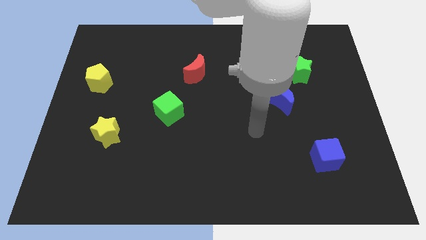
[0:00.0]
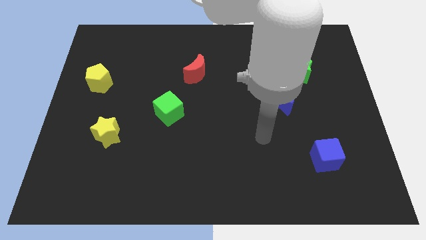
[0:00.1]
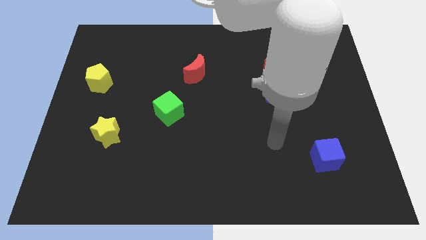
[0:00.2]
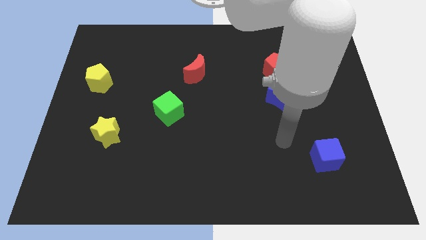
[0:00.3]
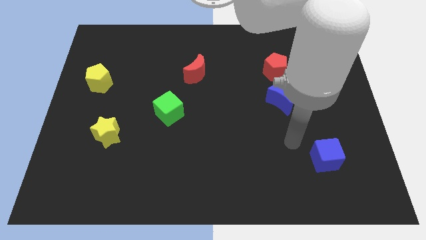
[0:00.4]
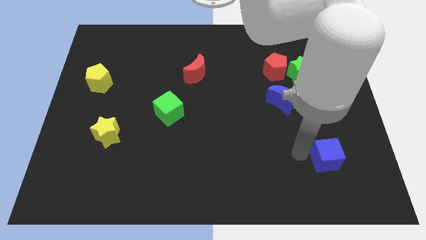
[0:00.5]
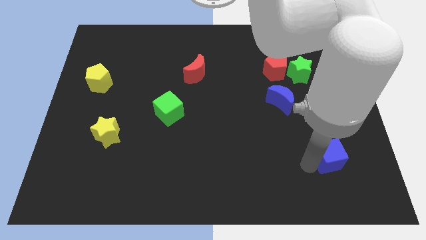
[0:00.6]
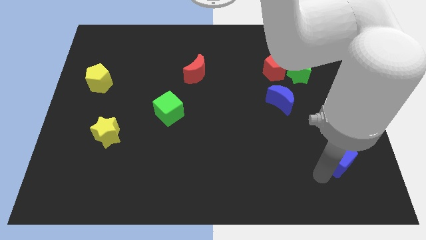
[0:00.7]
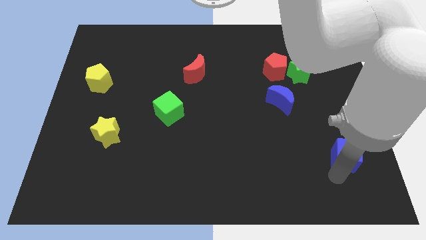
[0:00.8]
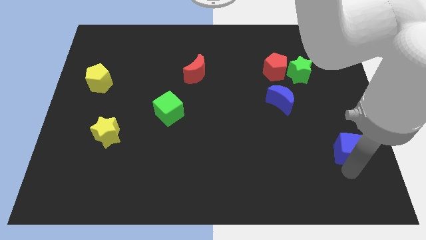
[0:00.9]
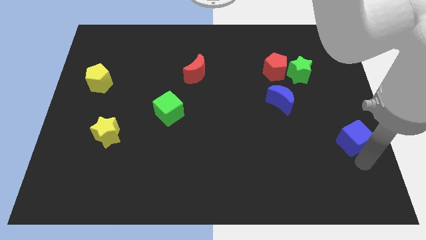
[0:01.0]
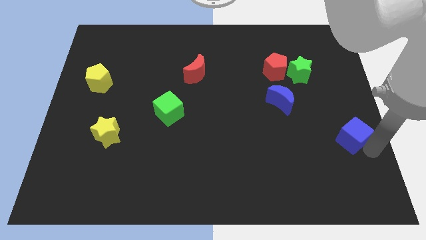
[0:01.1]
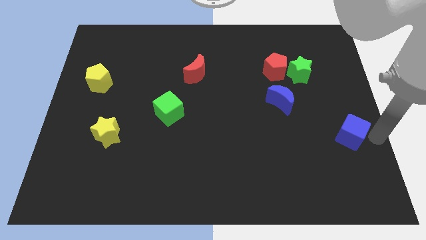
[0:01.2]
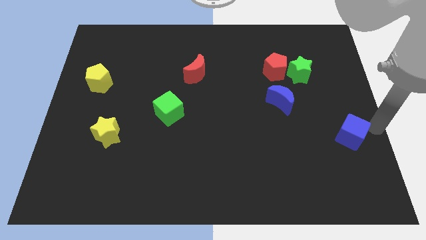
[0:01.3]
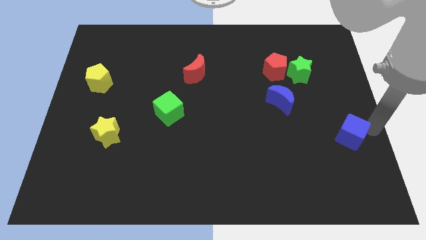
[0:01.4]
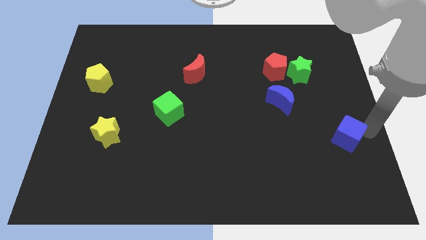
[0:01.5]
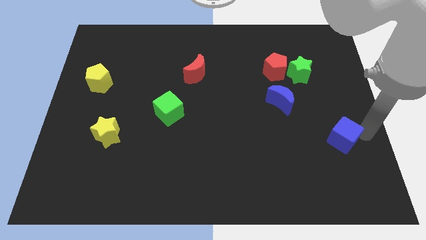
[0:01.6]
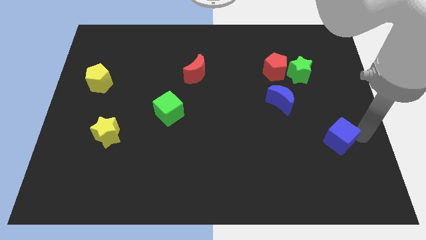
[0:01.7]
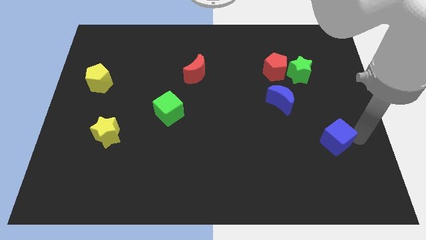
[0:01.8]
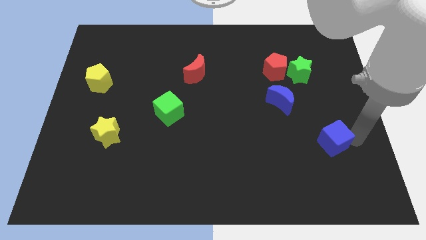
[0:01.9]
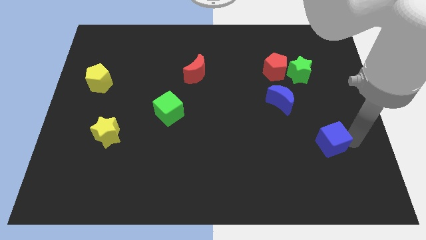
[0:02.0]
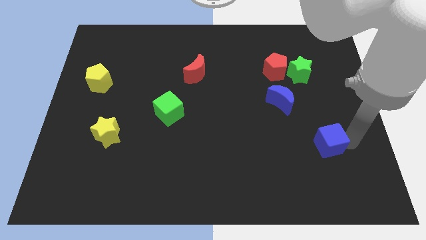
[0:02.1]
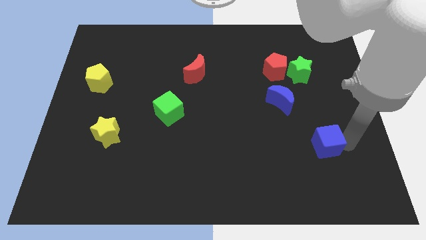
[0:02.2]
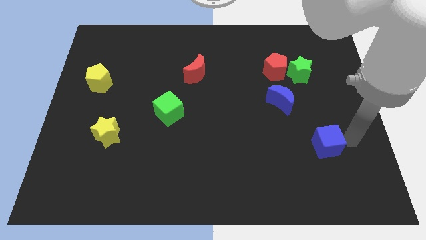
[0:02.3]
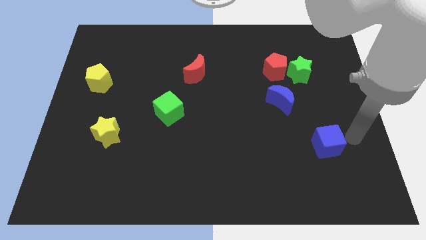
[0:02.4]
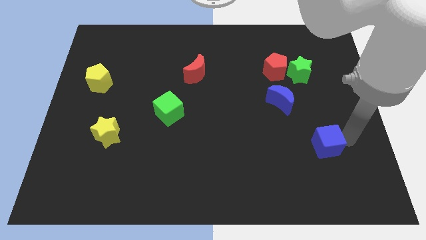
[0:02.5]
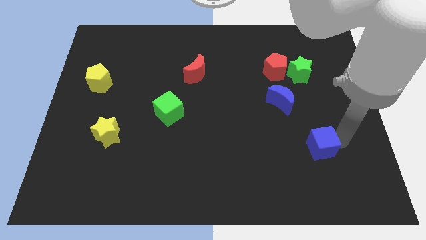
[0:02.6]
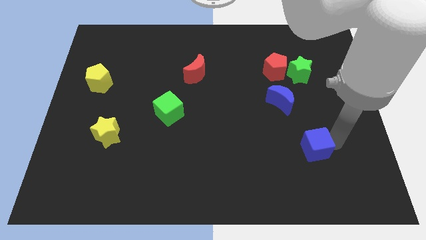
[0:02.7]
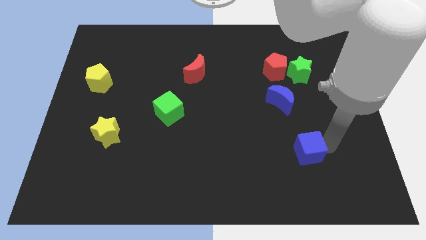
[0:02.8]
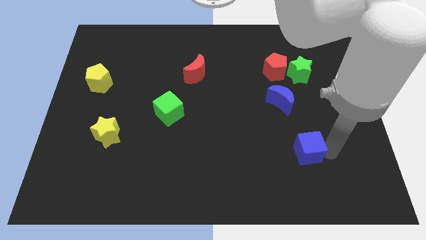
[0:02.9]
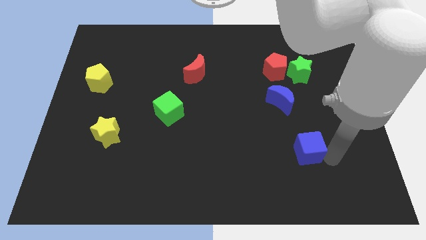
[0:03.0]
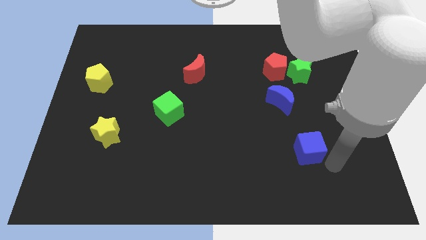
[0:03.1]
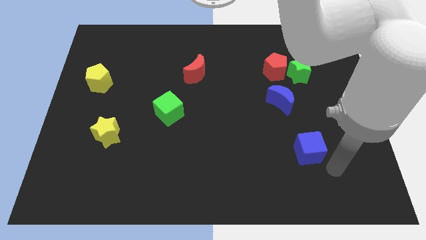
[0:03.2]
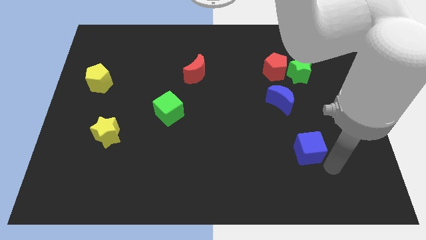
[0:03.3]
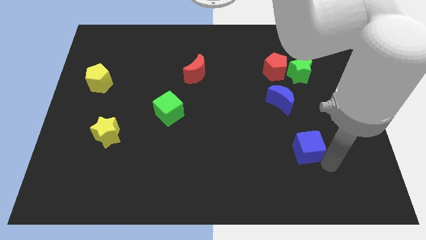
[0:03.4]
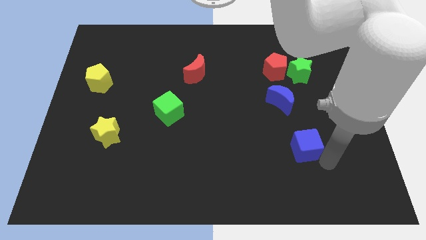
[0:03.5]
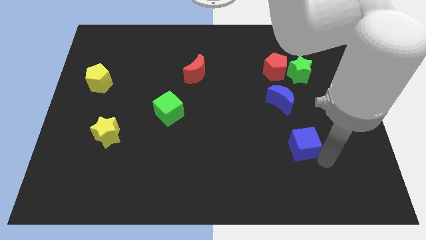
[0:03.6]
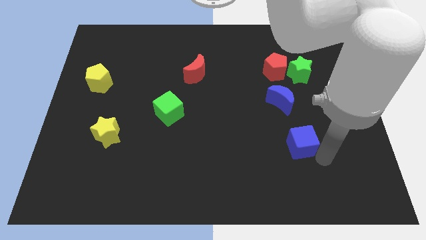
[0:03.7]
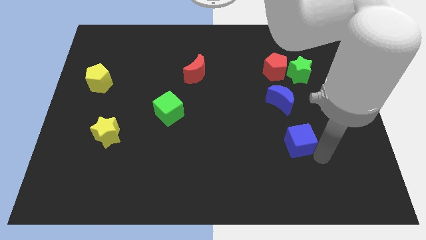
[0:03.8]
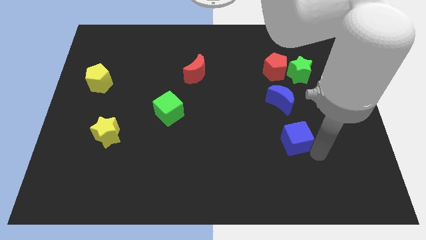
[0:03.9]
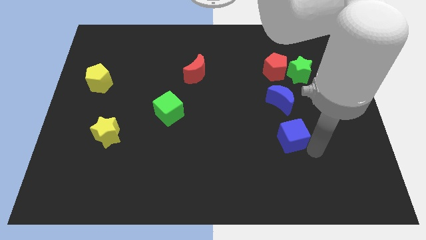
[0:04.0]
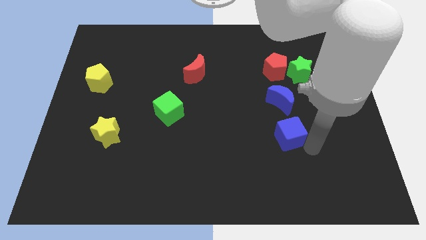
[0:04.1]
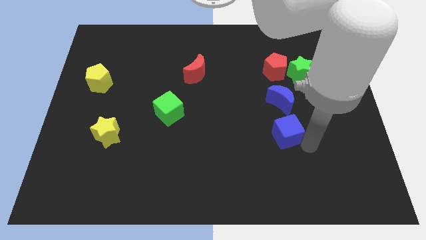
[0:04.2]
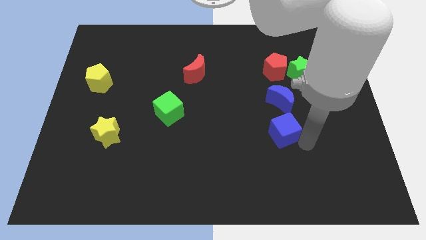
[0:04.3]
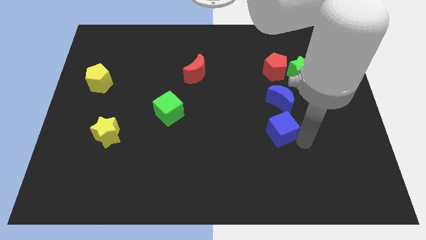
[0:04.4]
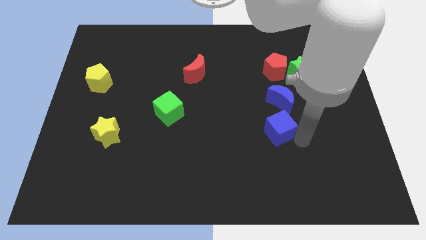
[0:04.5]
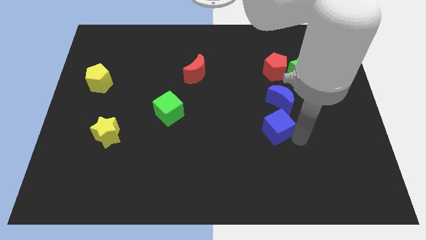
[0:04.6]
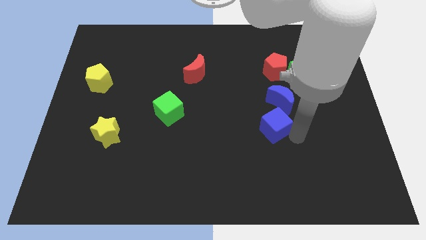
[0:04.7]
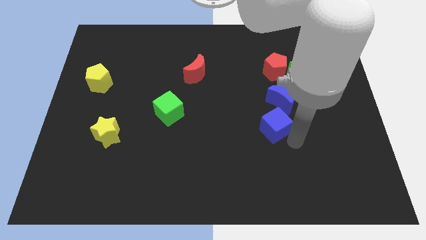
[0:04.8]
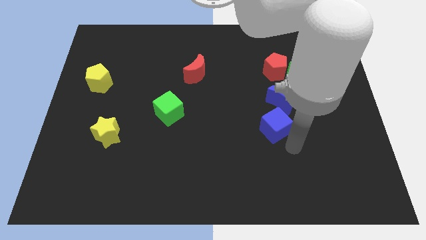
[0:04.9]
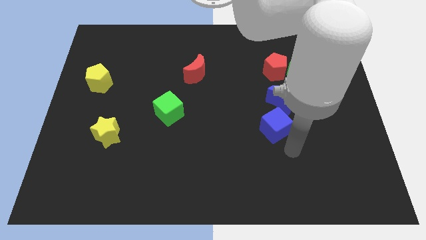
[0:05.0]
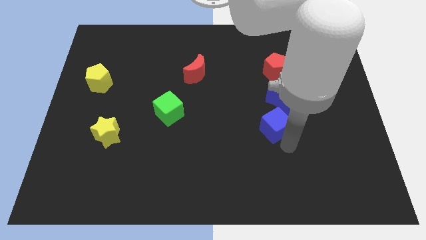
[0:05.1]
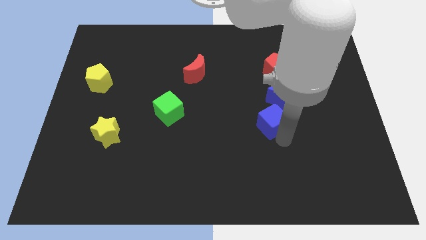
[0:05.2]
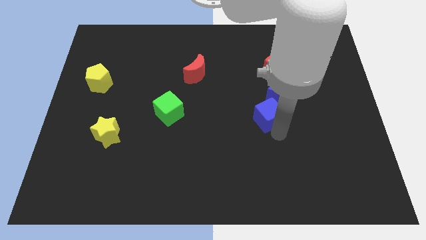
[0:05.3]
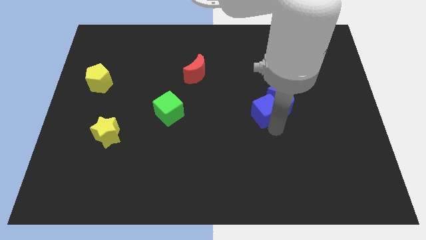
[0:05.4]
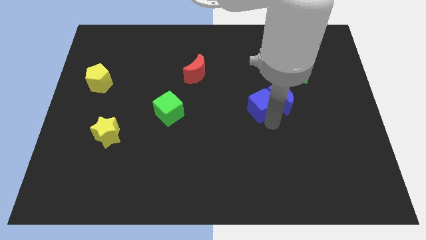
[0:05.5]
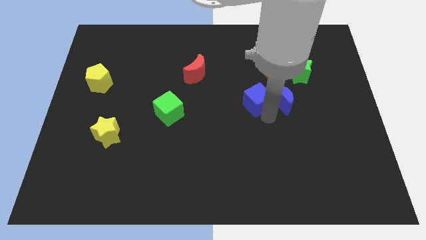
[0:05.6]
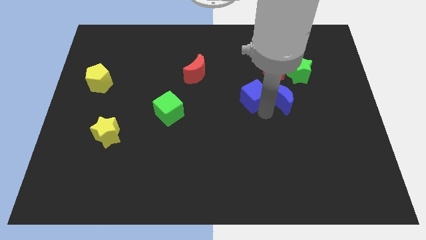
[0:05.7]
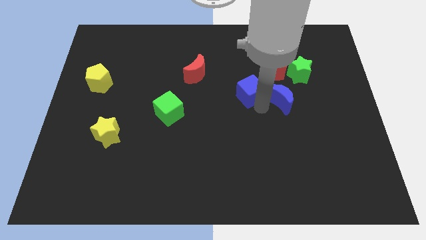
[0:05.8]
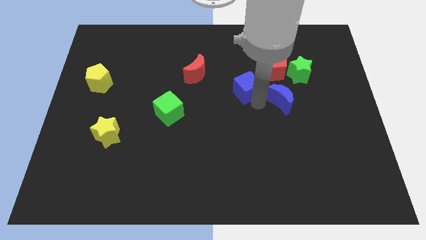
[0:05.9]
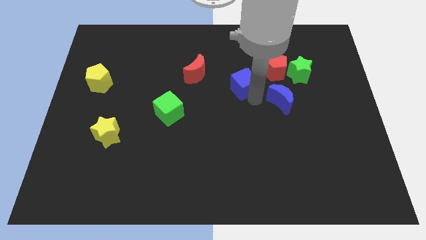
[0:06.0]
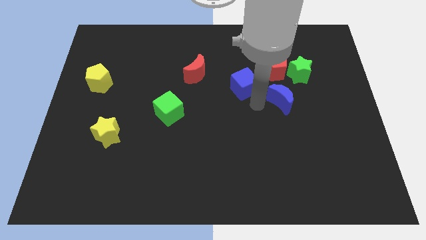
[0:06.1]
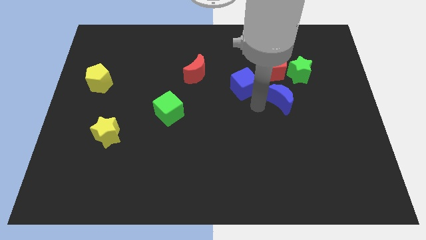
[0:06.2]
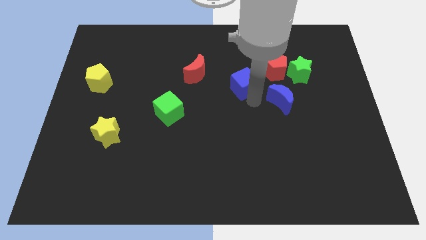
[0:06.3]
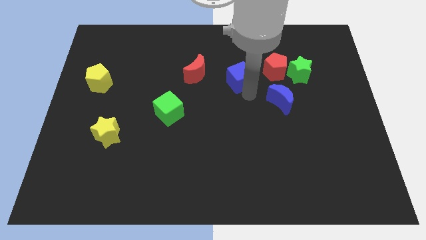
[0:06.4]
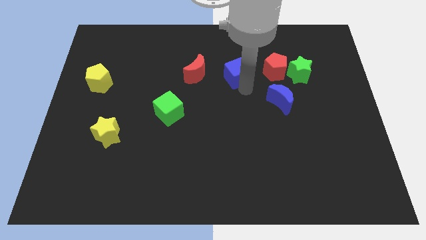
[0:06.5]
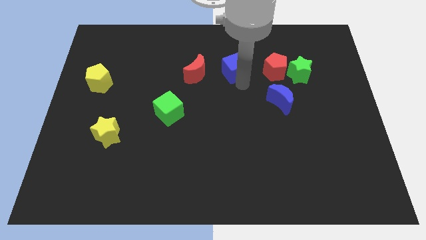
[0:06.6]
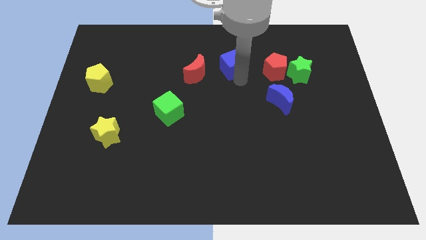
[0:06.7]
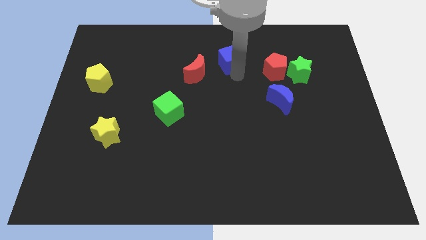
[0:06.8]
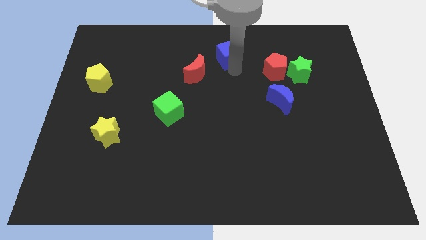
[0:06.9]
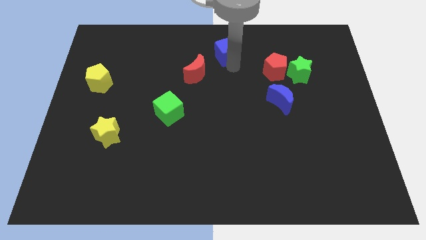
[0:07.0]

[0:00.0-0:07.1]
move the blue cube to the towards your base
